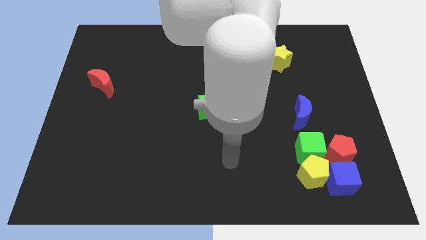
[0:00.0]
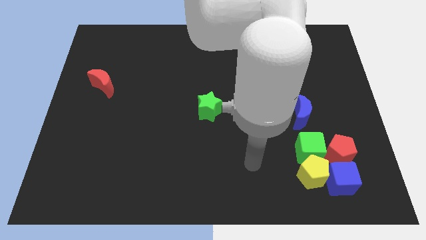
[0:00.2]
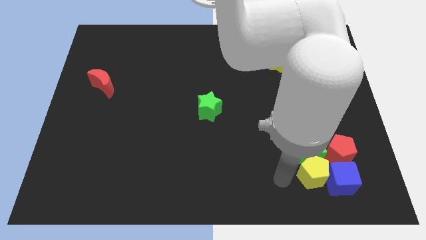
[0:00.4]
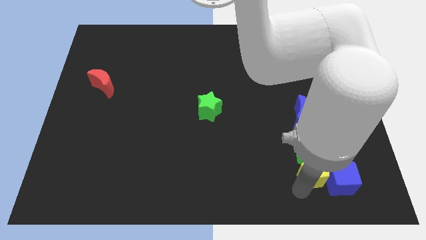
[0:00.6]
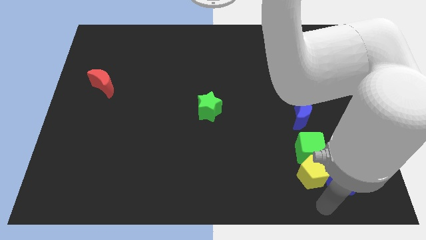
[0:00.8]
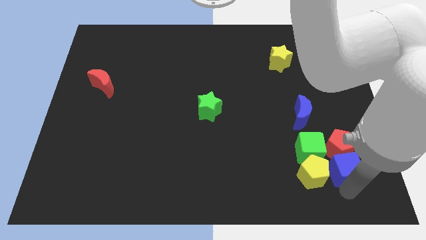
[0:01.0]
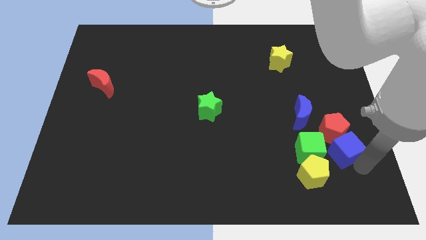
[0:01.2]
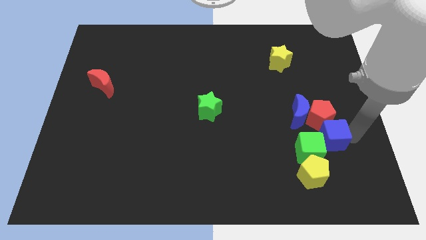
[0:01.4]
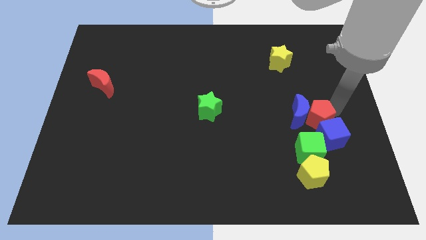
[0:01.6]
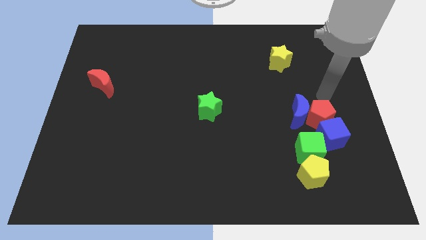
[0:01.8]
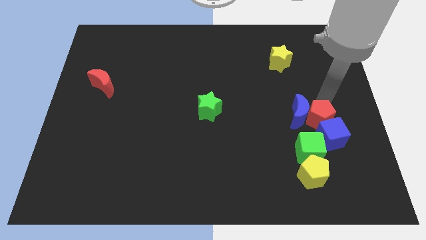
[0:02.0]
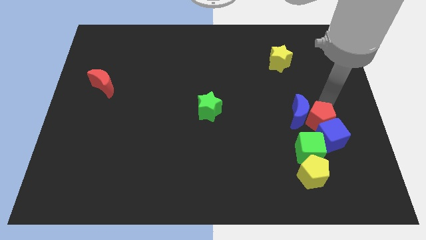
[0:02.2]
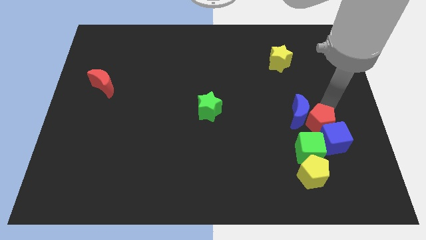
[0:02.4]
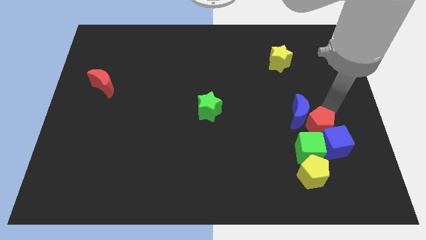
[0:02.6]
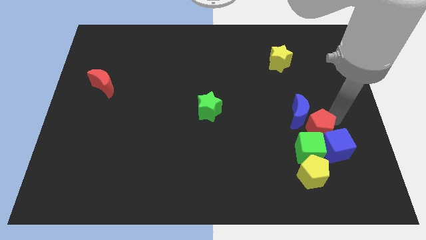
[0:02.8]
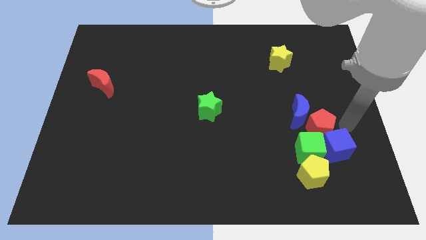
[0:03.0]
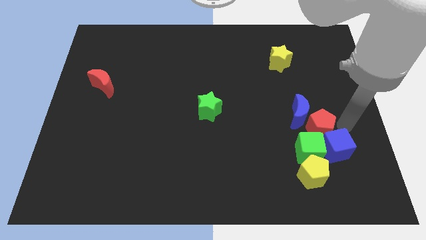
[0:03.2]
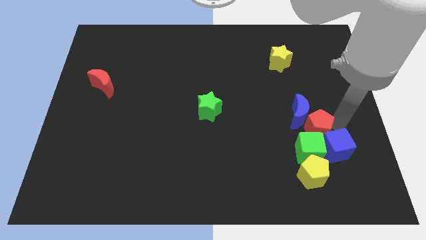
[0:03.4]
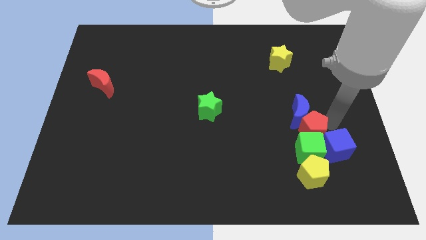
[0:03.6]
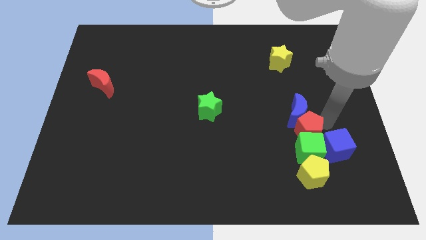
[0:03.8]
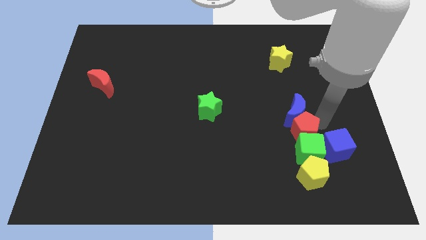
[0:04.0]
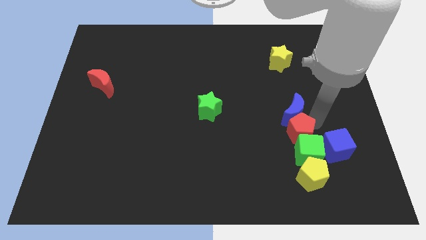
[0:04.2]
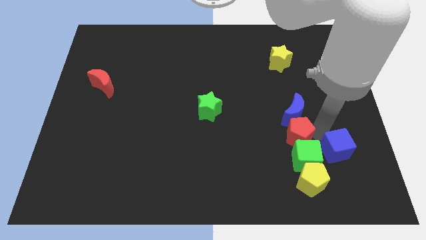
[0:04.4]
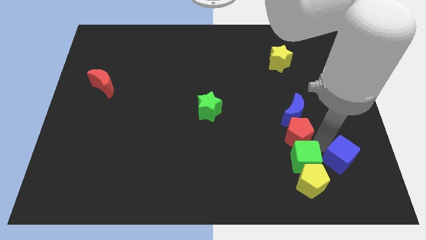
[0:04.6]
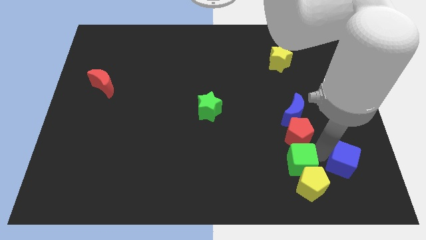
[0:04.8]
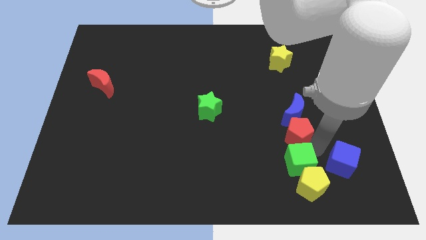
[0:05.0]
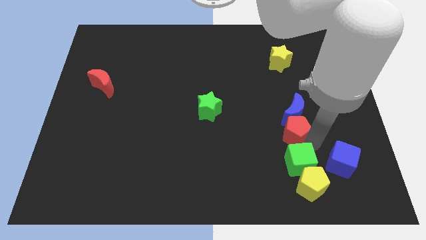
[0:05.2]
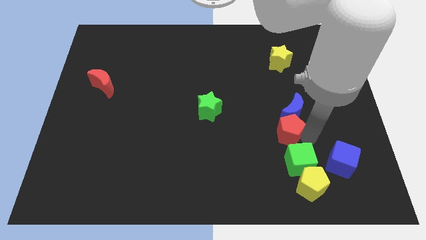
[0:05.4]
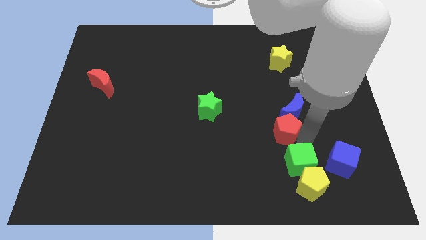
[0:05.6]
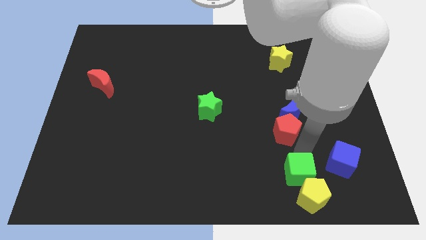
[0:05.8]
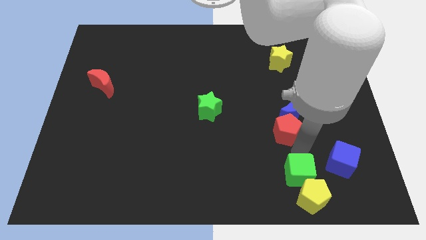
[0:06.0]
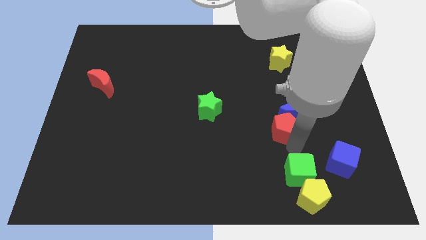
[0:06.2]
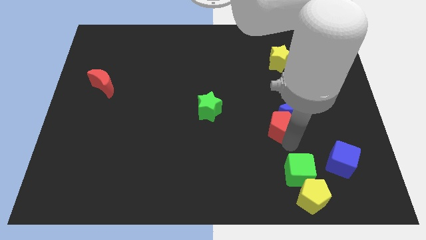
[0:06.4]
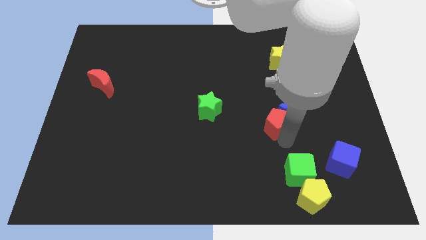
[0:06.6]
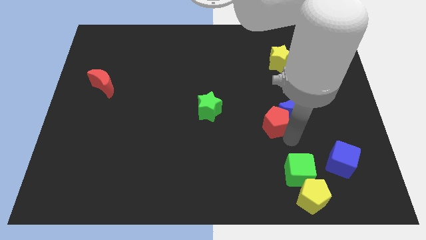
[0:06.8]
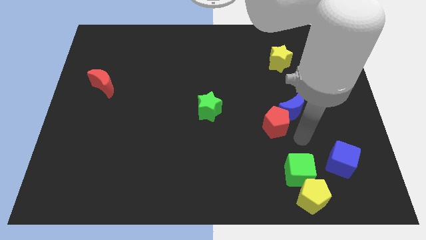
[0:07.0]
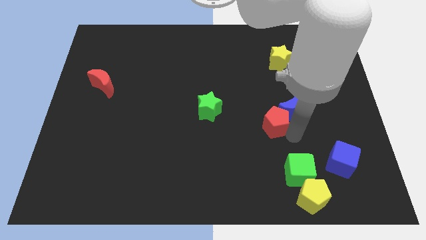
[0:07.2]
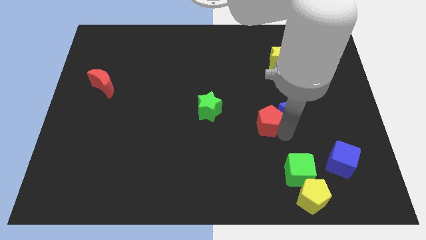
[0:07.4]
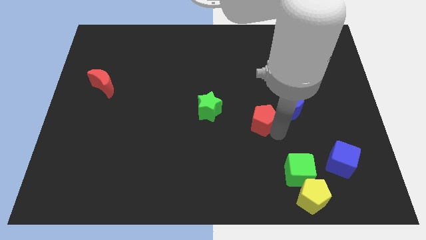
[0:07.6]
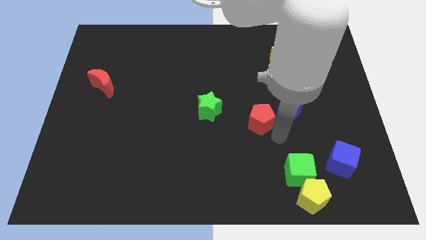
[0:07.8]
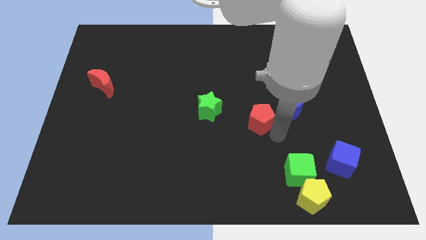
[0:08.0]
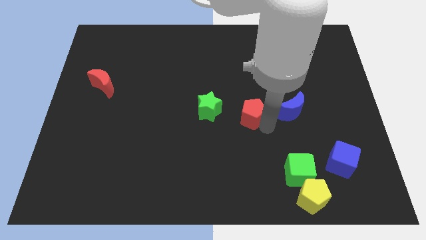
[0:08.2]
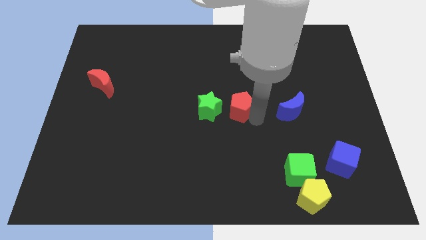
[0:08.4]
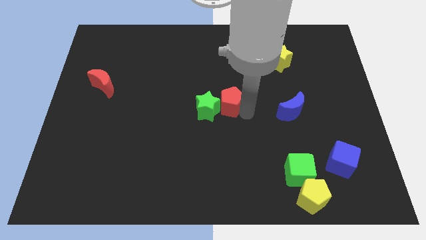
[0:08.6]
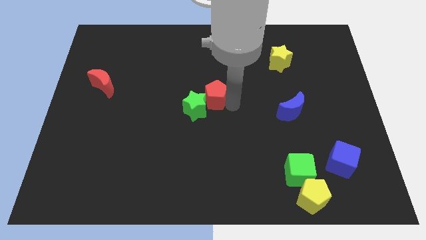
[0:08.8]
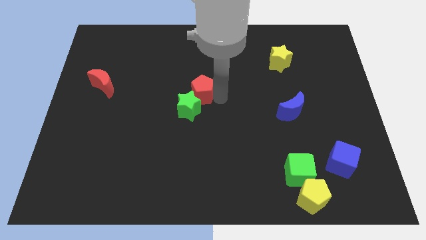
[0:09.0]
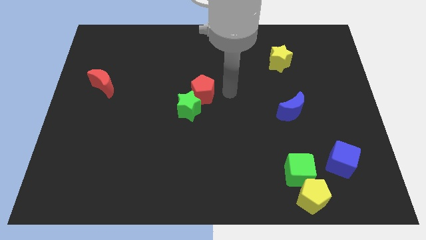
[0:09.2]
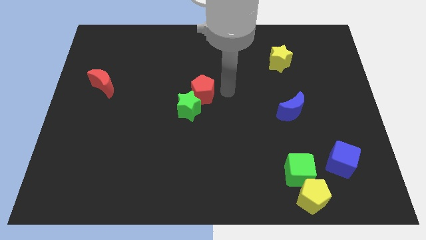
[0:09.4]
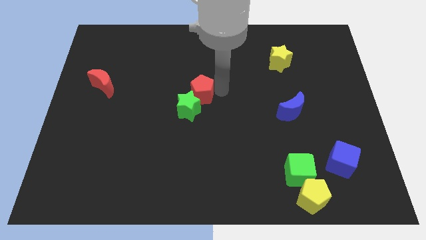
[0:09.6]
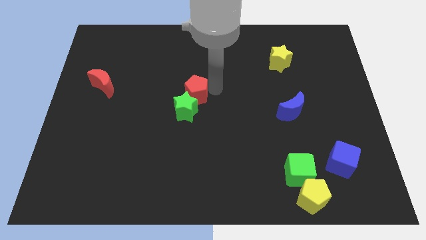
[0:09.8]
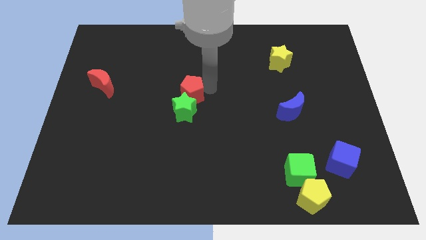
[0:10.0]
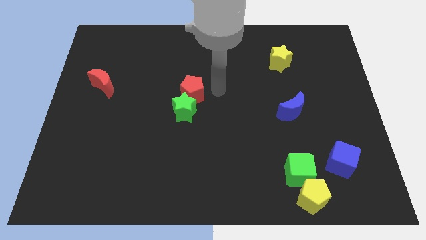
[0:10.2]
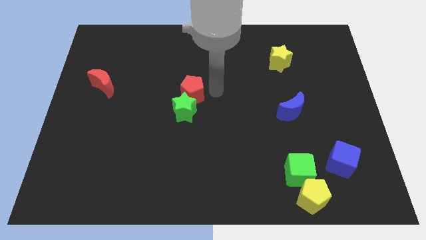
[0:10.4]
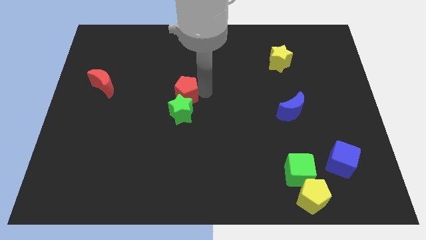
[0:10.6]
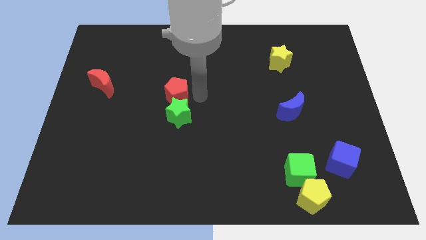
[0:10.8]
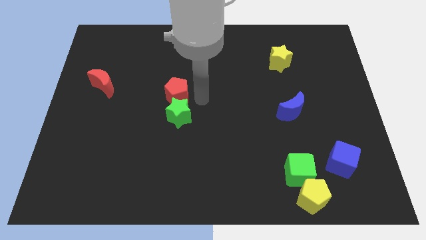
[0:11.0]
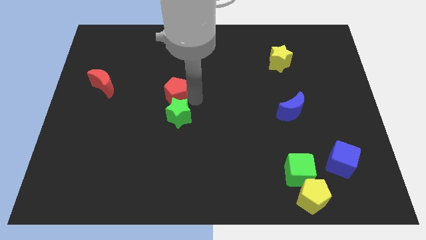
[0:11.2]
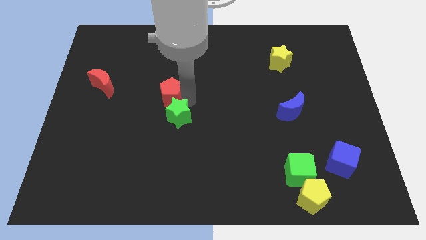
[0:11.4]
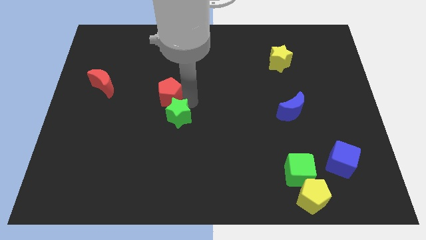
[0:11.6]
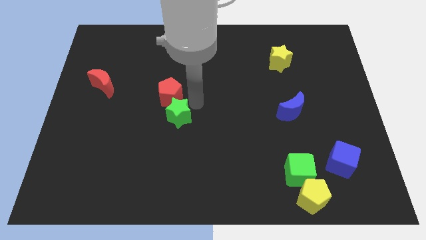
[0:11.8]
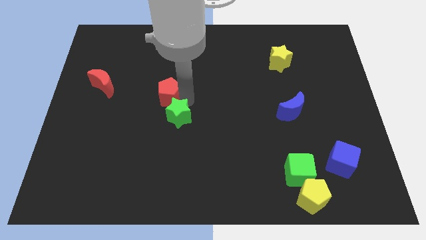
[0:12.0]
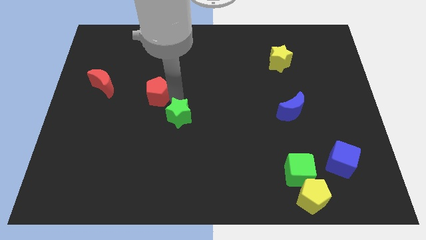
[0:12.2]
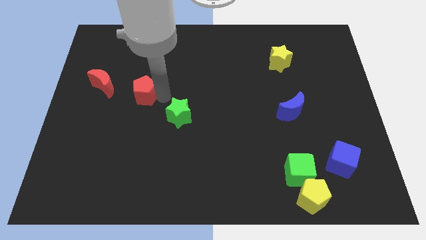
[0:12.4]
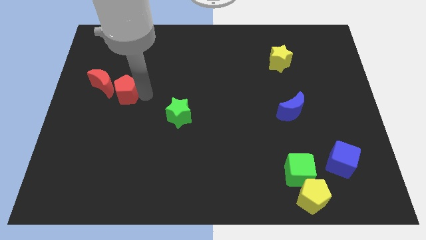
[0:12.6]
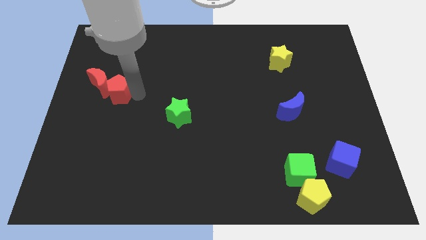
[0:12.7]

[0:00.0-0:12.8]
slide the red pentagon next to the red moon

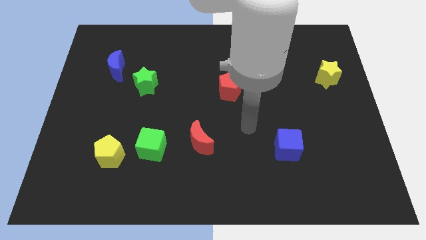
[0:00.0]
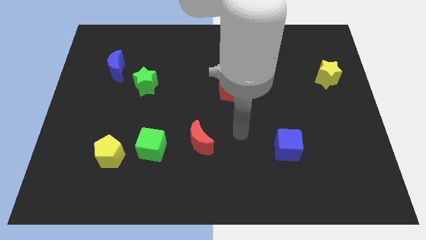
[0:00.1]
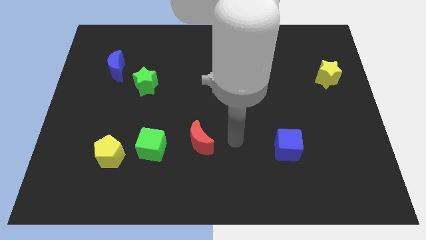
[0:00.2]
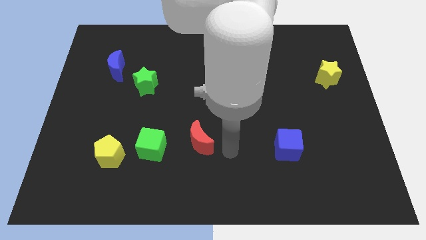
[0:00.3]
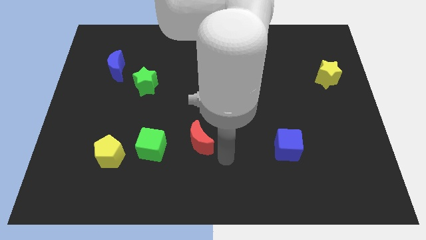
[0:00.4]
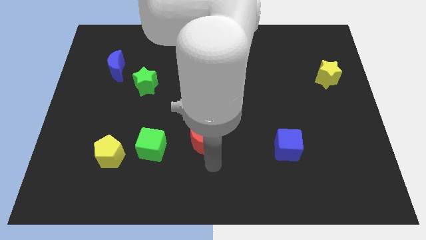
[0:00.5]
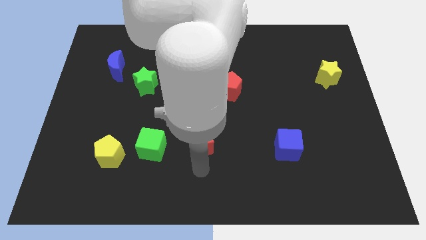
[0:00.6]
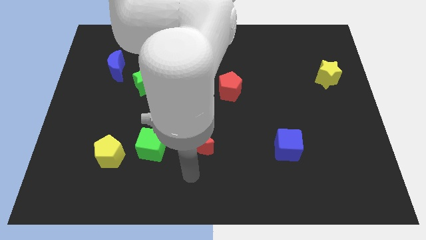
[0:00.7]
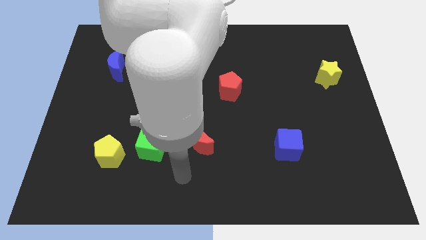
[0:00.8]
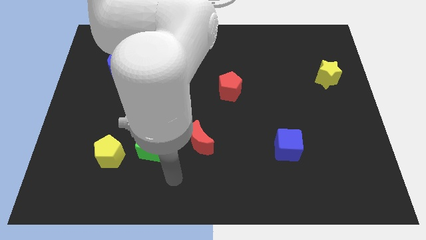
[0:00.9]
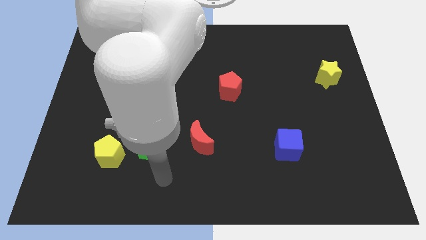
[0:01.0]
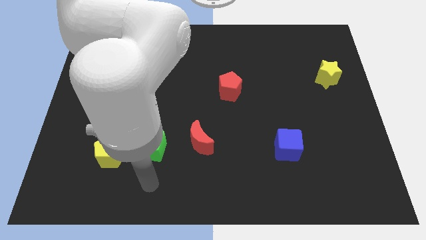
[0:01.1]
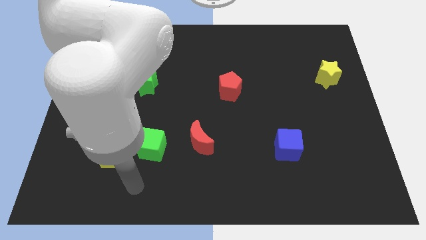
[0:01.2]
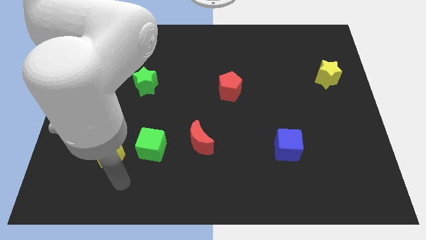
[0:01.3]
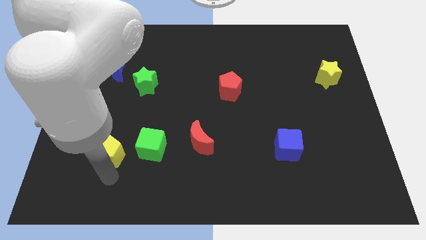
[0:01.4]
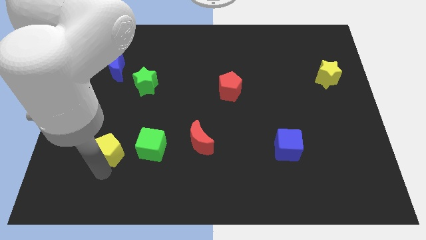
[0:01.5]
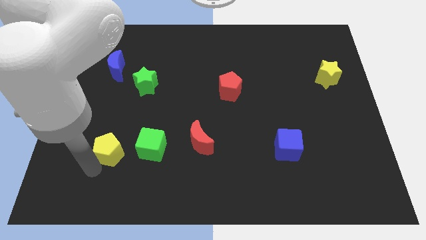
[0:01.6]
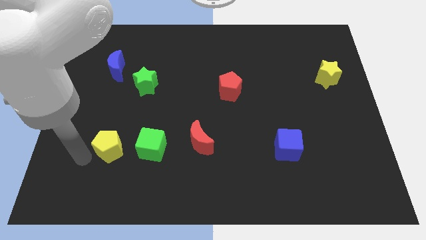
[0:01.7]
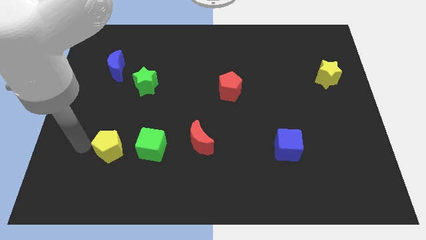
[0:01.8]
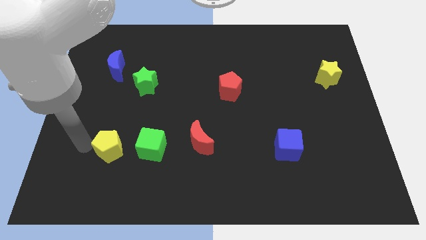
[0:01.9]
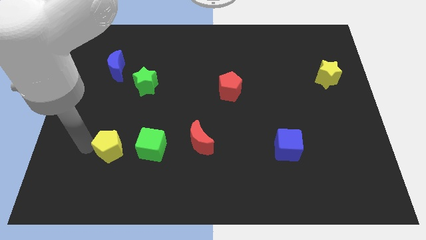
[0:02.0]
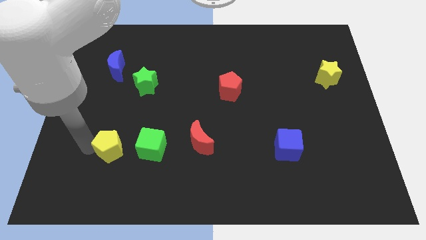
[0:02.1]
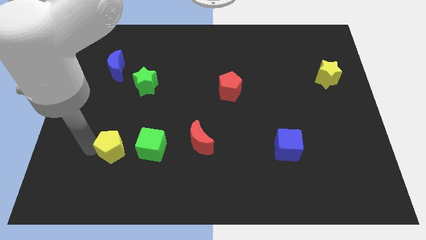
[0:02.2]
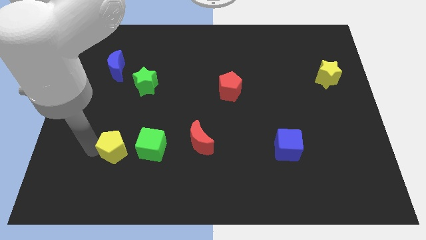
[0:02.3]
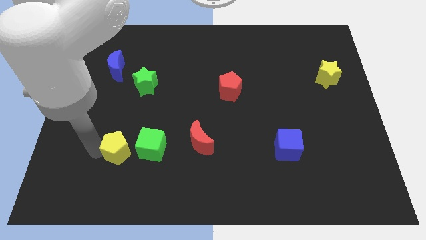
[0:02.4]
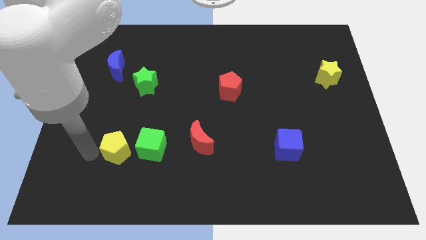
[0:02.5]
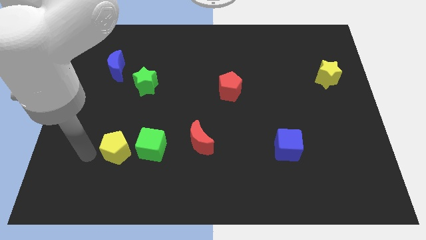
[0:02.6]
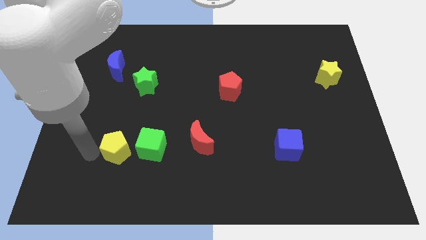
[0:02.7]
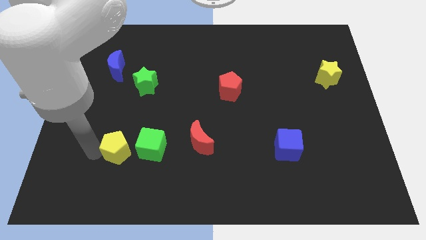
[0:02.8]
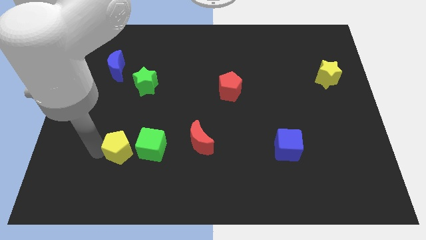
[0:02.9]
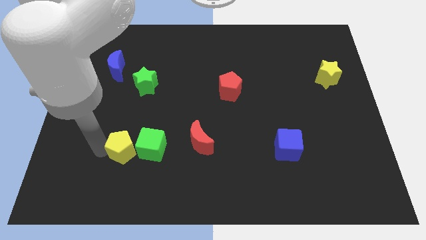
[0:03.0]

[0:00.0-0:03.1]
slide the yellow pentagon close to the green cube
